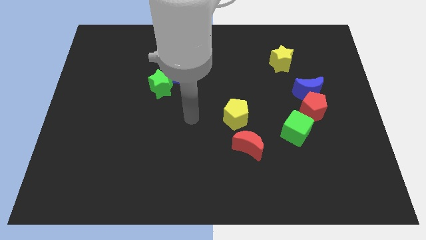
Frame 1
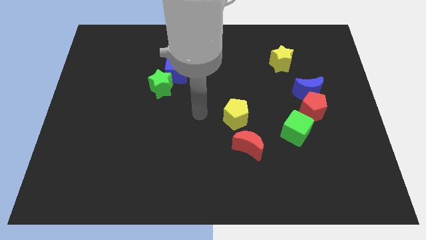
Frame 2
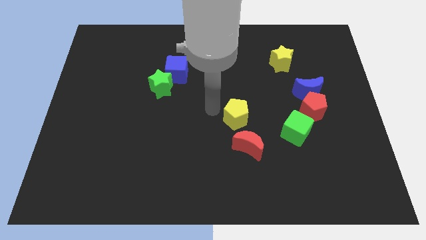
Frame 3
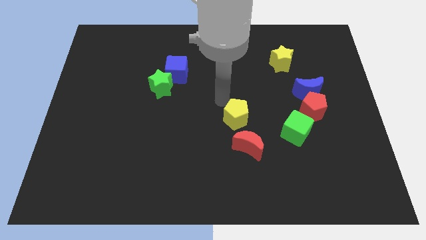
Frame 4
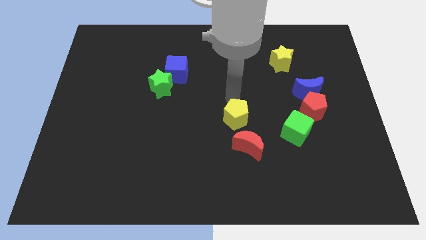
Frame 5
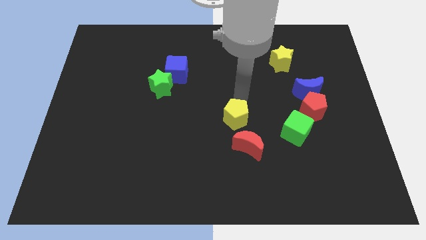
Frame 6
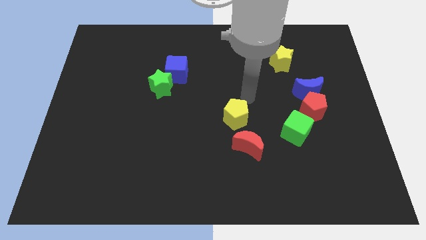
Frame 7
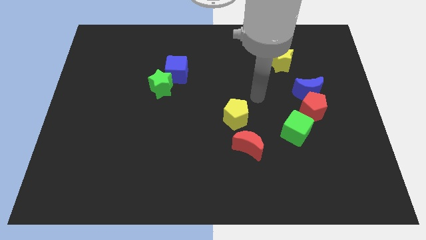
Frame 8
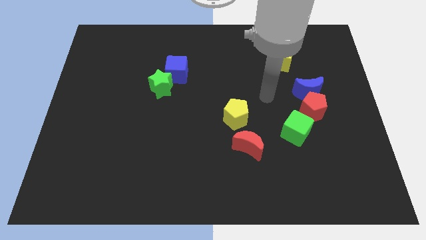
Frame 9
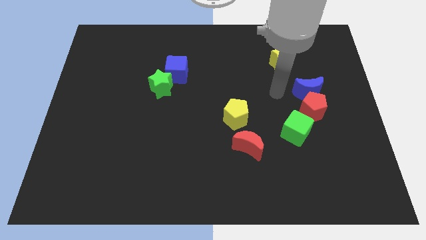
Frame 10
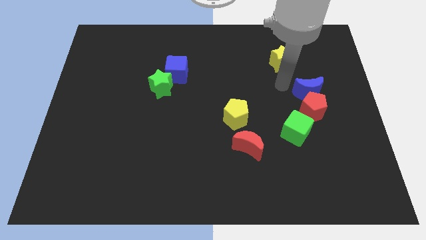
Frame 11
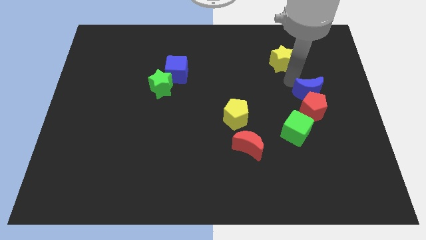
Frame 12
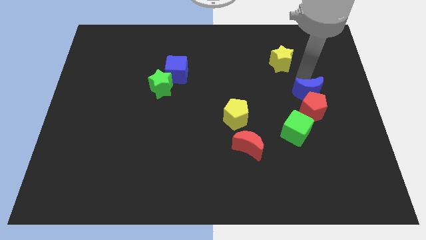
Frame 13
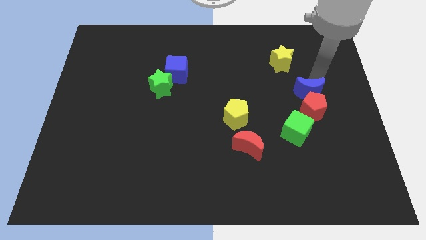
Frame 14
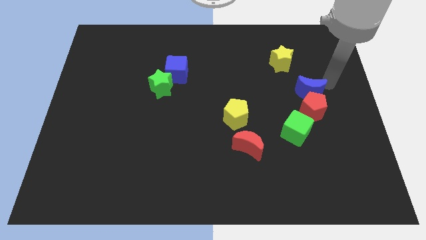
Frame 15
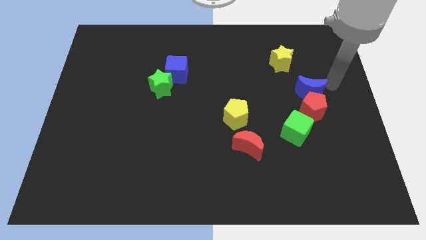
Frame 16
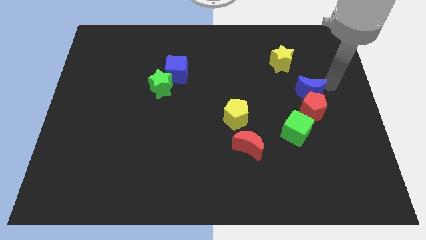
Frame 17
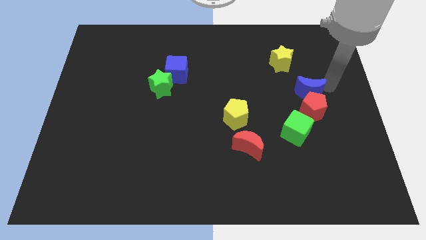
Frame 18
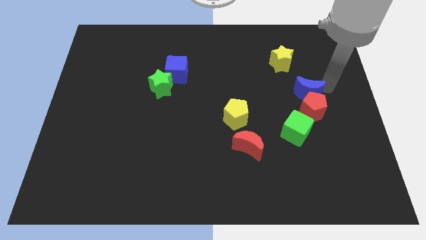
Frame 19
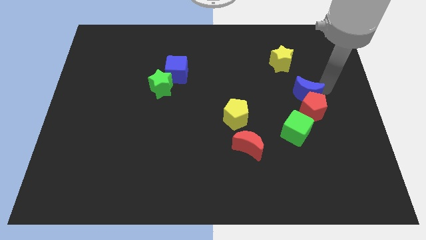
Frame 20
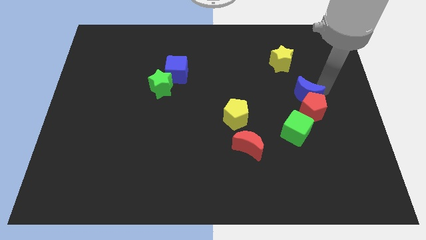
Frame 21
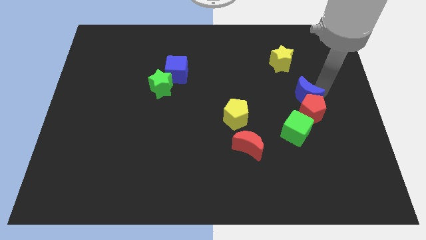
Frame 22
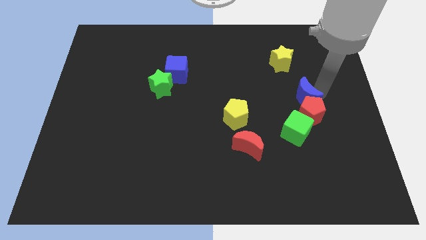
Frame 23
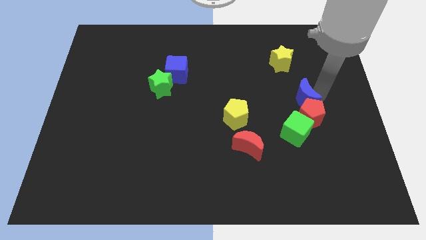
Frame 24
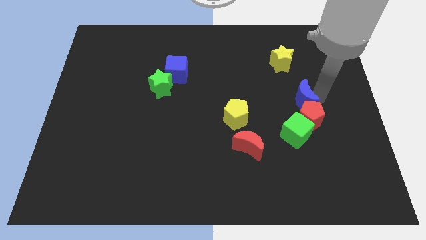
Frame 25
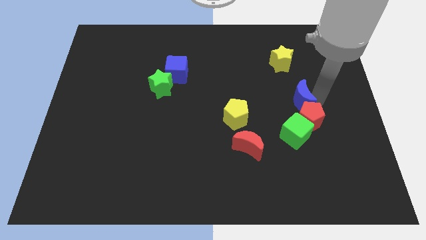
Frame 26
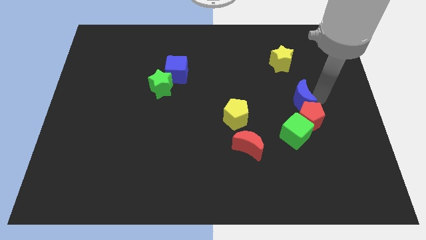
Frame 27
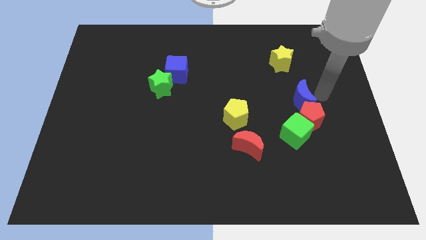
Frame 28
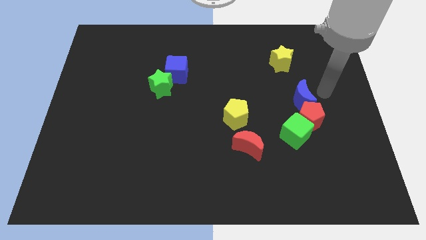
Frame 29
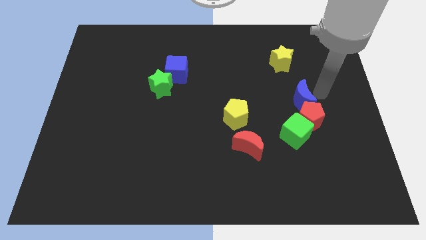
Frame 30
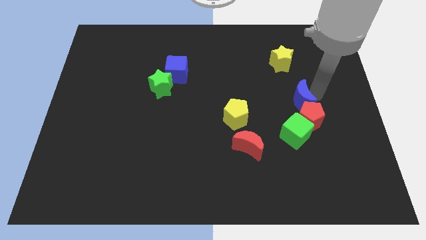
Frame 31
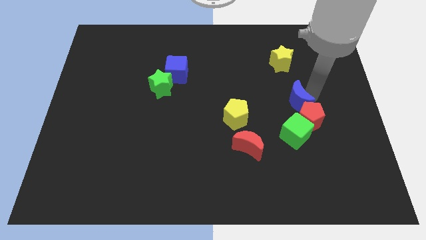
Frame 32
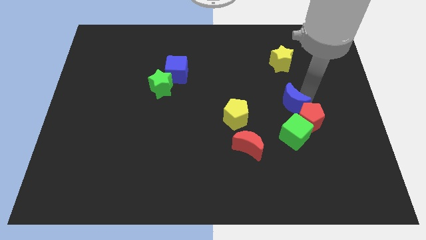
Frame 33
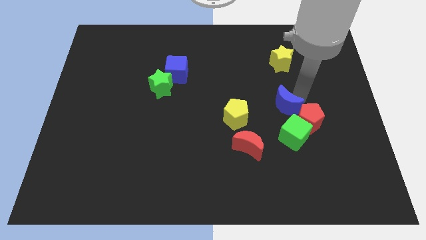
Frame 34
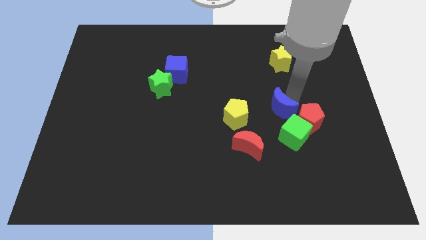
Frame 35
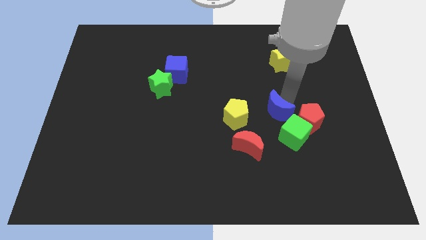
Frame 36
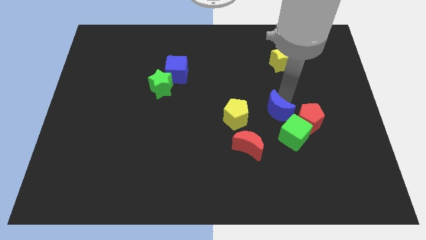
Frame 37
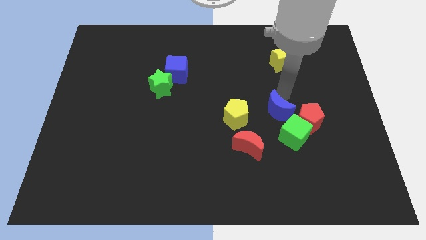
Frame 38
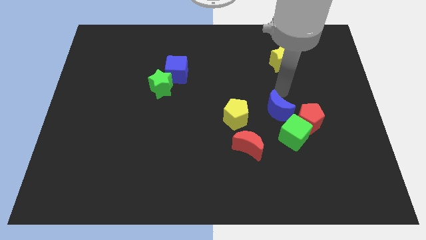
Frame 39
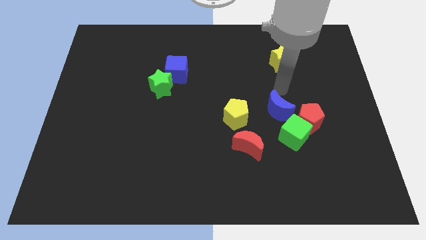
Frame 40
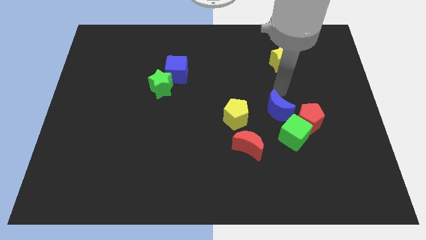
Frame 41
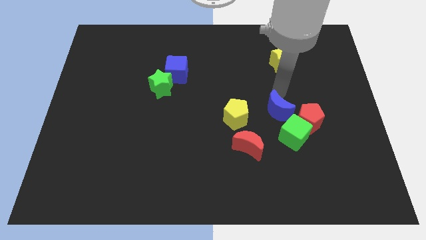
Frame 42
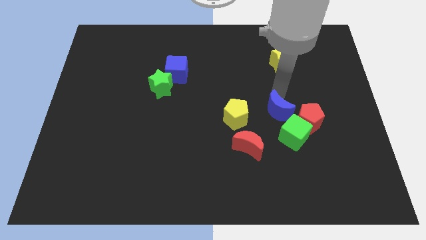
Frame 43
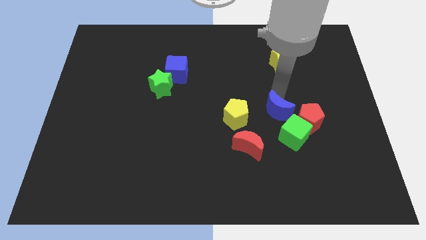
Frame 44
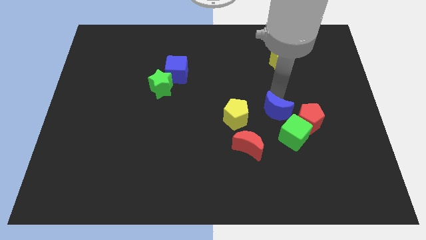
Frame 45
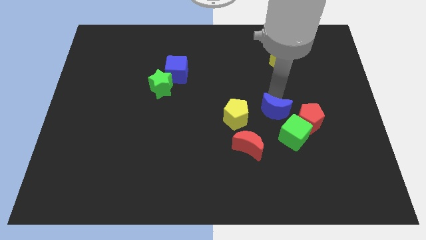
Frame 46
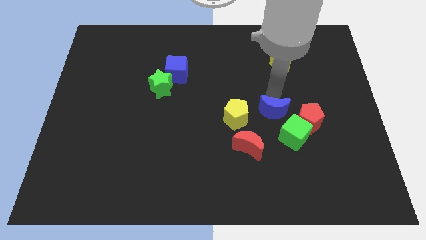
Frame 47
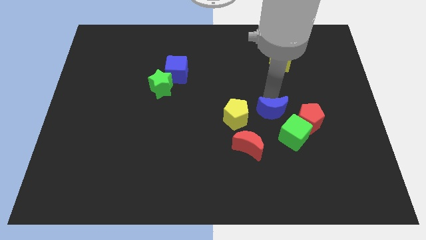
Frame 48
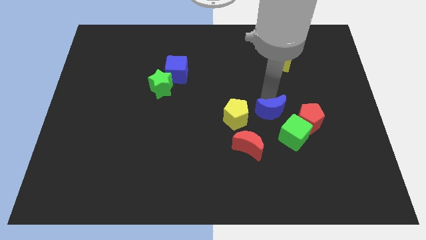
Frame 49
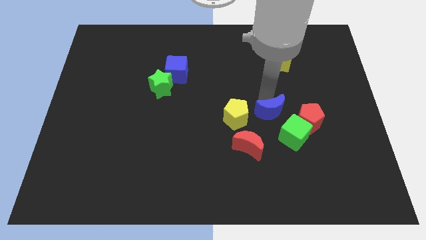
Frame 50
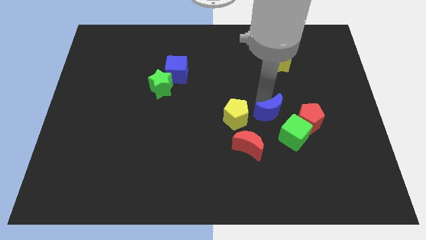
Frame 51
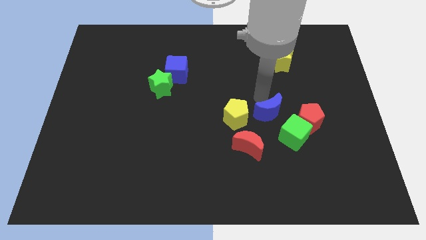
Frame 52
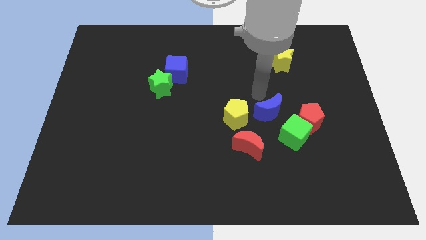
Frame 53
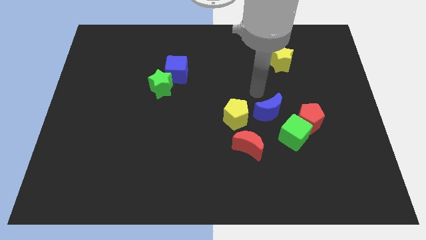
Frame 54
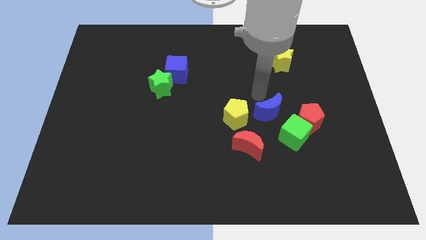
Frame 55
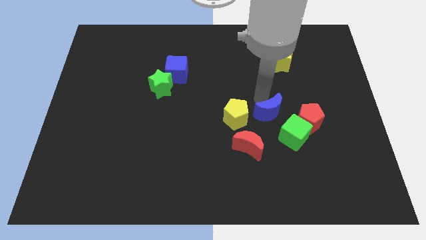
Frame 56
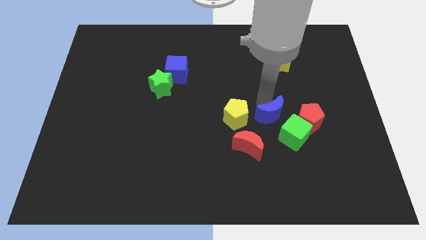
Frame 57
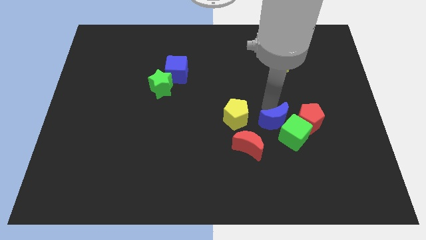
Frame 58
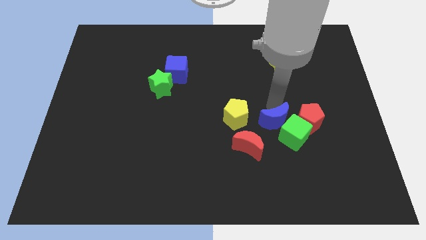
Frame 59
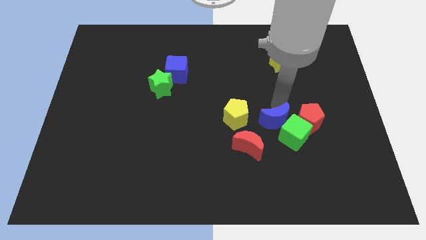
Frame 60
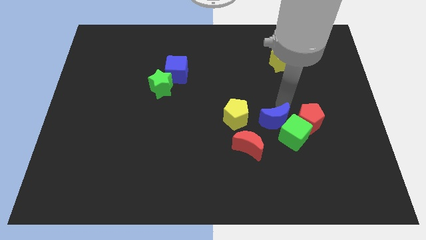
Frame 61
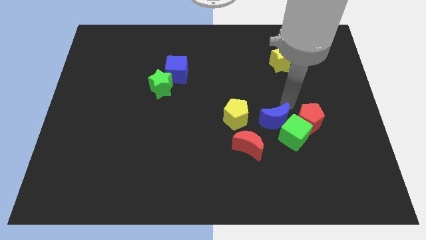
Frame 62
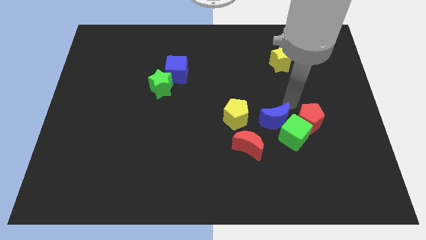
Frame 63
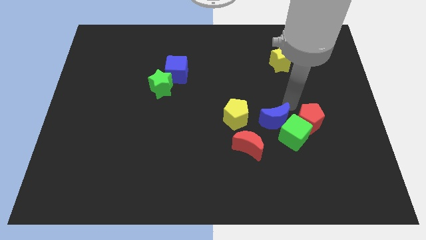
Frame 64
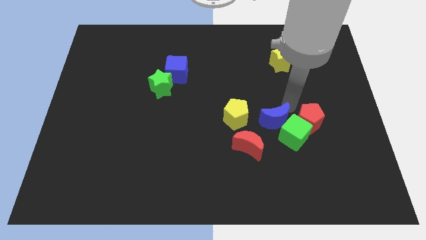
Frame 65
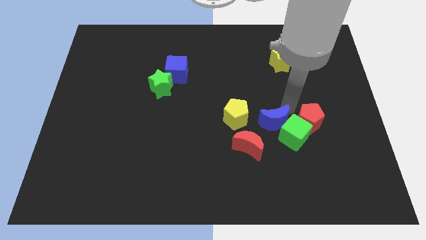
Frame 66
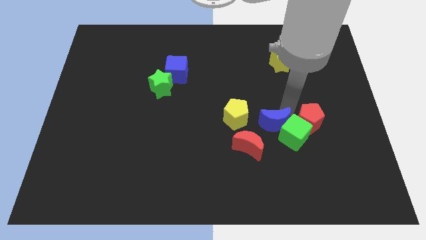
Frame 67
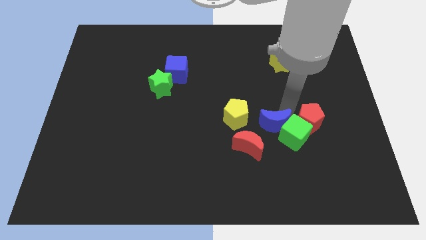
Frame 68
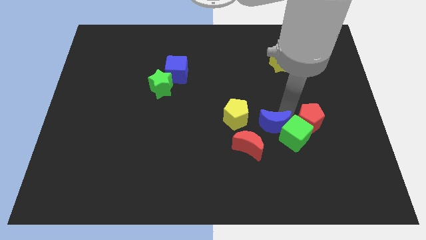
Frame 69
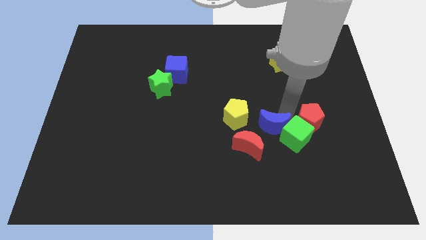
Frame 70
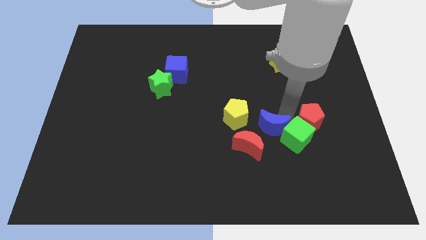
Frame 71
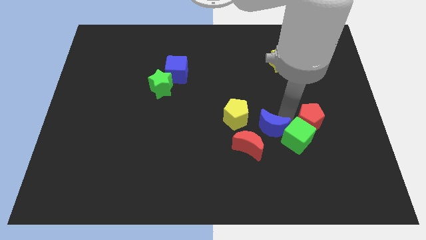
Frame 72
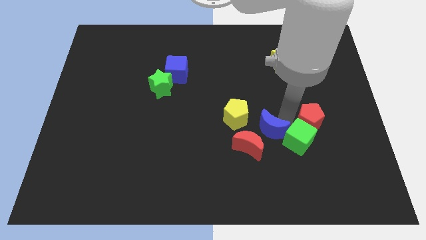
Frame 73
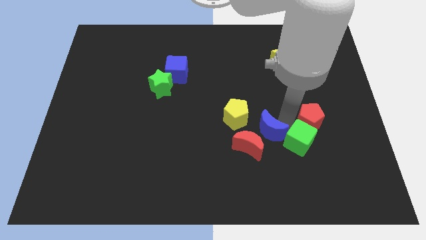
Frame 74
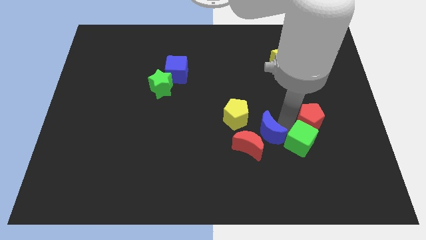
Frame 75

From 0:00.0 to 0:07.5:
put the blue moon to the red moon

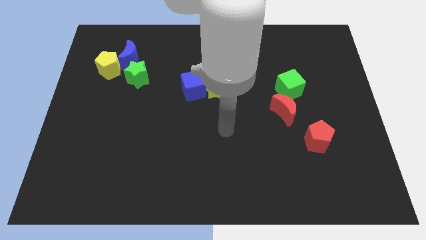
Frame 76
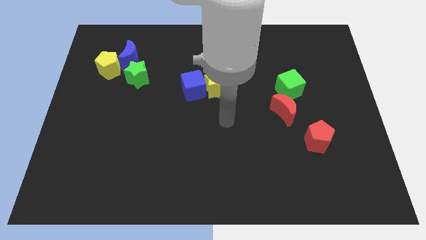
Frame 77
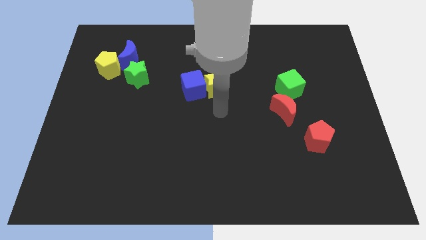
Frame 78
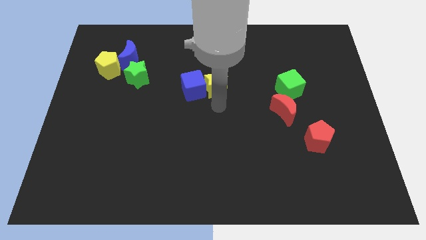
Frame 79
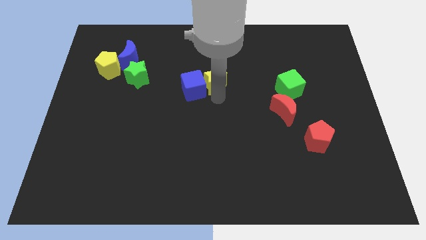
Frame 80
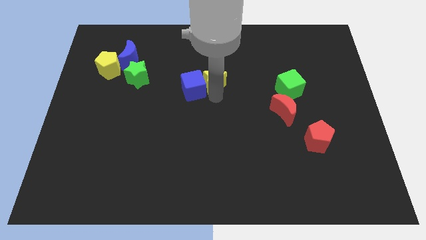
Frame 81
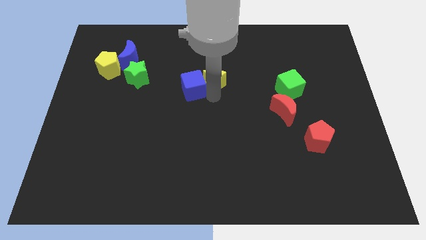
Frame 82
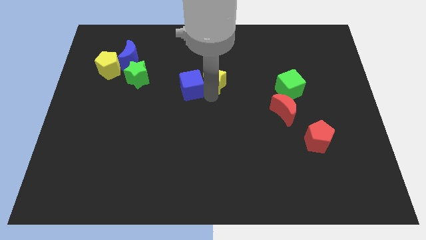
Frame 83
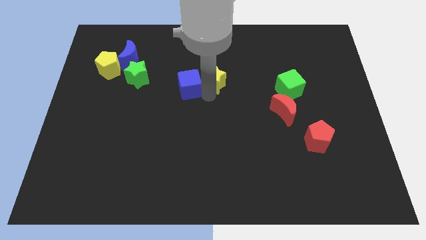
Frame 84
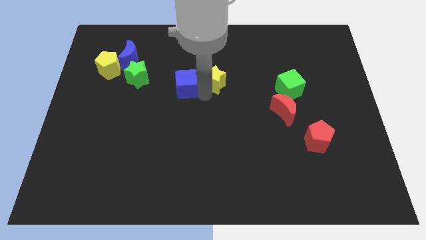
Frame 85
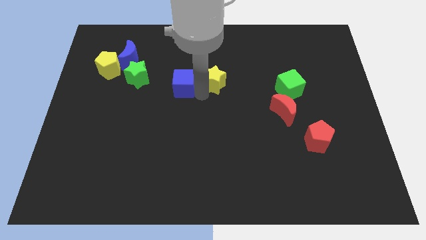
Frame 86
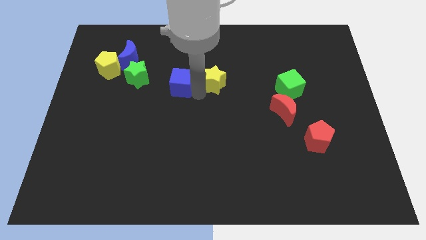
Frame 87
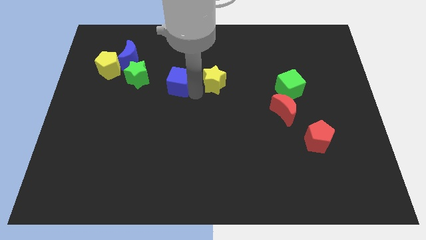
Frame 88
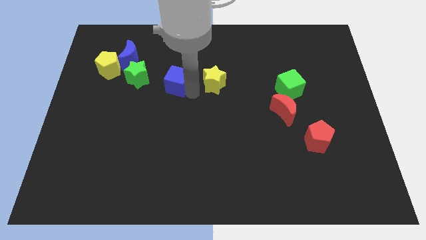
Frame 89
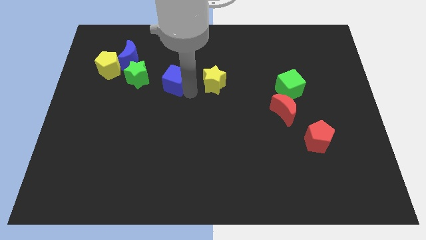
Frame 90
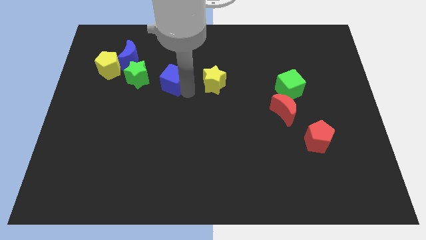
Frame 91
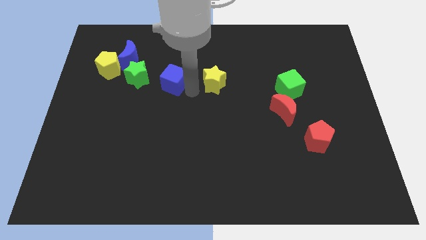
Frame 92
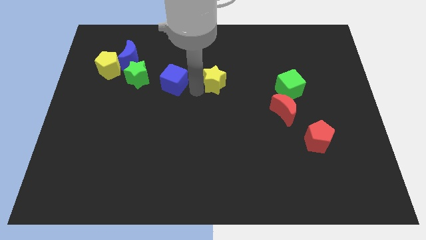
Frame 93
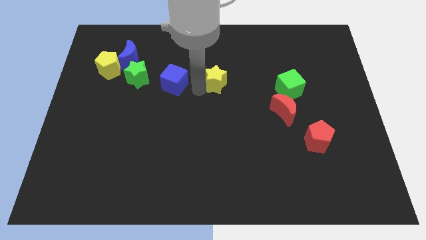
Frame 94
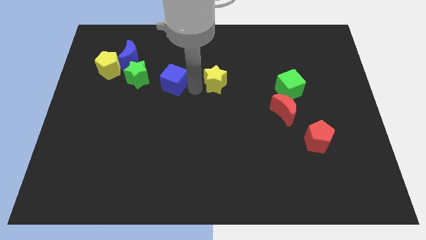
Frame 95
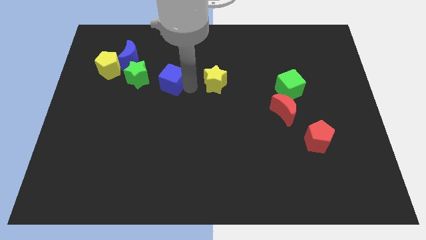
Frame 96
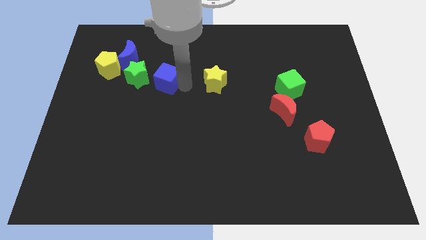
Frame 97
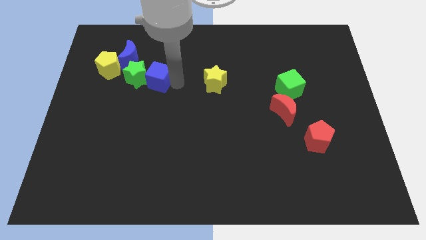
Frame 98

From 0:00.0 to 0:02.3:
push the blue cube next to the green star
